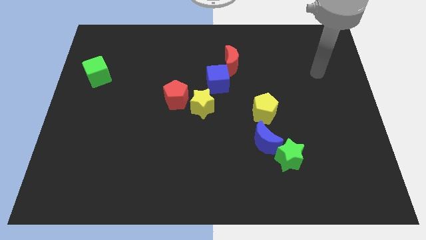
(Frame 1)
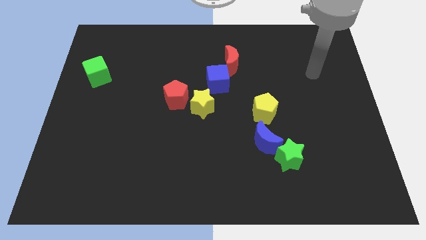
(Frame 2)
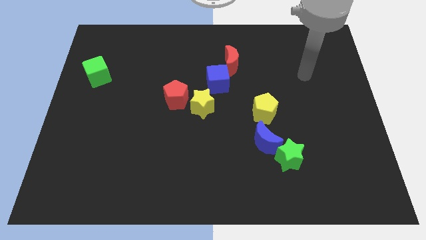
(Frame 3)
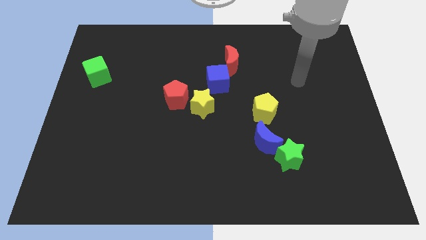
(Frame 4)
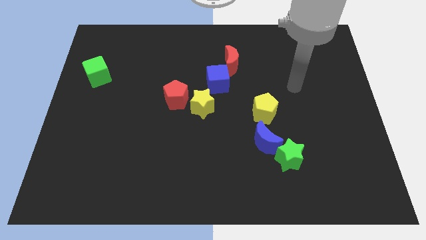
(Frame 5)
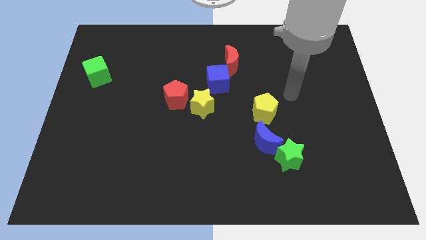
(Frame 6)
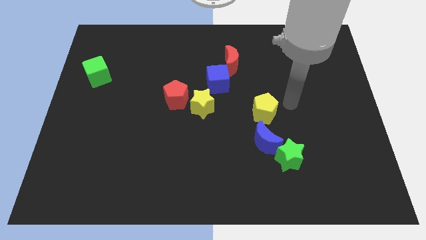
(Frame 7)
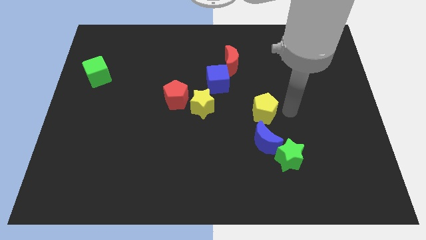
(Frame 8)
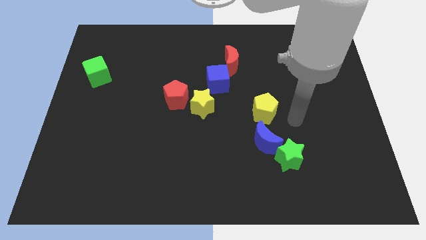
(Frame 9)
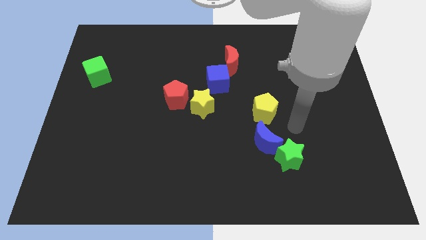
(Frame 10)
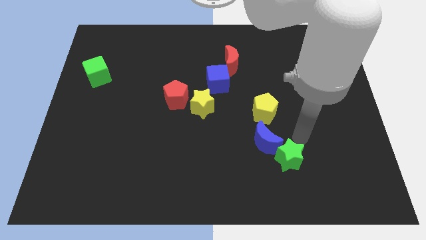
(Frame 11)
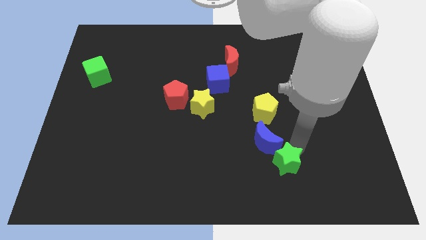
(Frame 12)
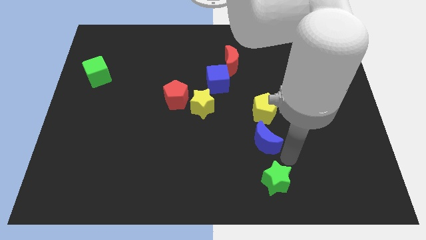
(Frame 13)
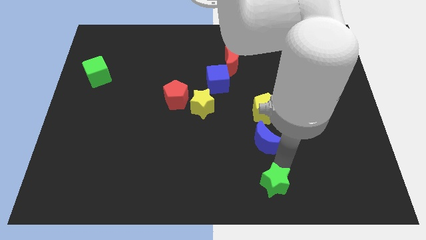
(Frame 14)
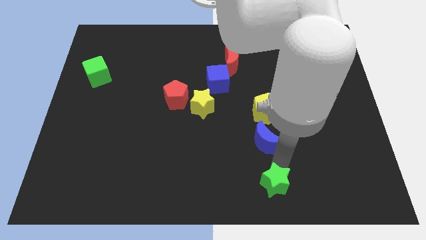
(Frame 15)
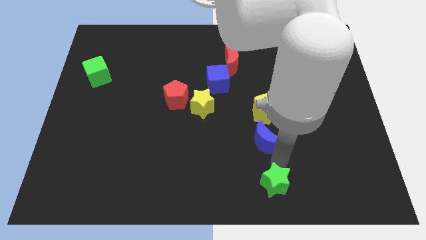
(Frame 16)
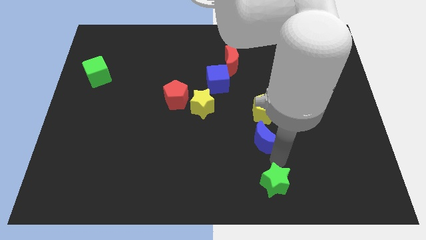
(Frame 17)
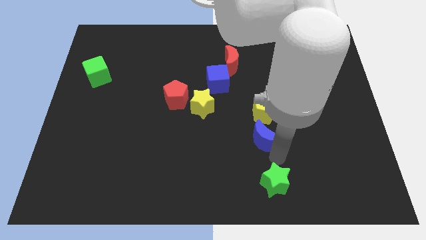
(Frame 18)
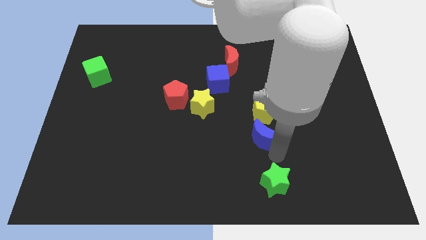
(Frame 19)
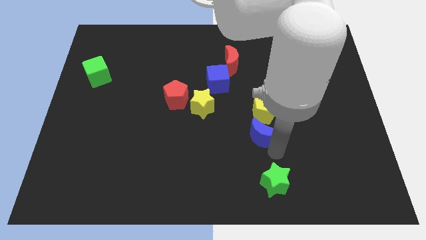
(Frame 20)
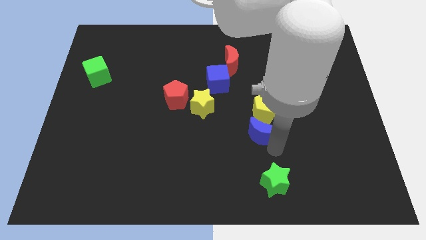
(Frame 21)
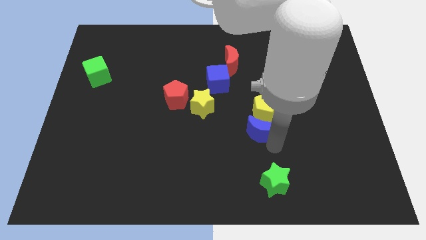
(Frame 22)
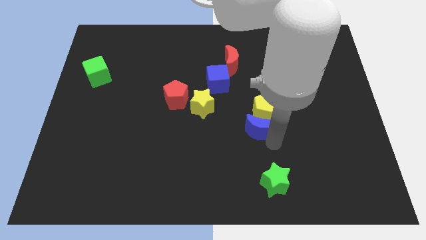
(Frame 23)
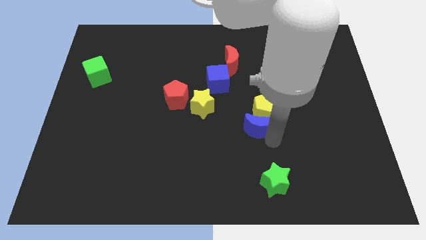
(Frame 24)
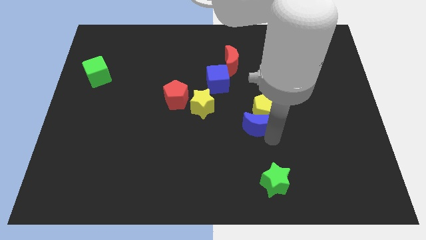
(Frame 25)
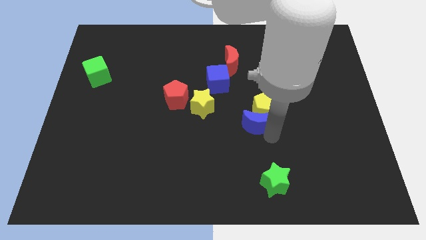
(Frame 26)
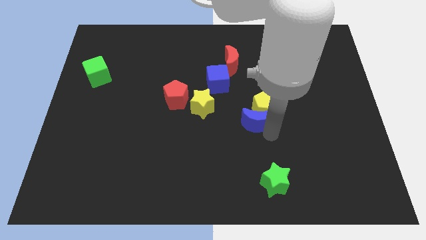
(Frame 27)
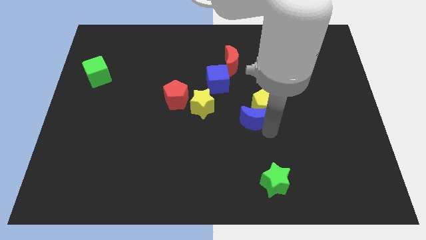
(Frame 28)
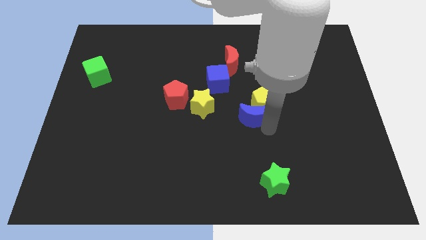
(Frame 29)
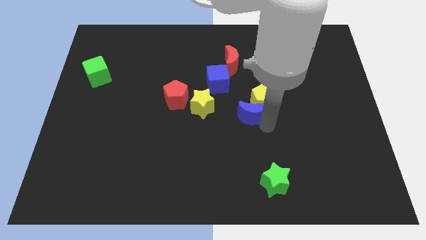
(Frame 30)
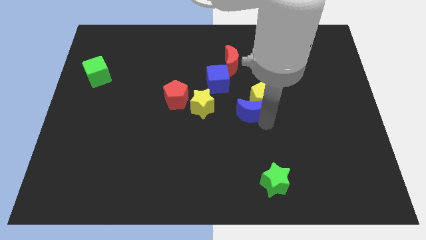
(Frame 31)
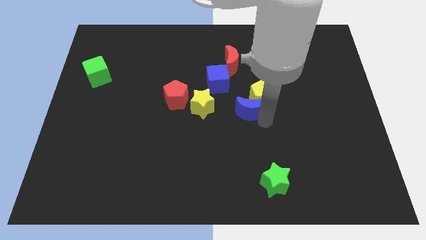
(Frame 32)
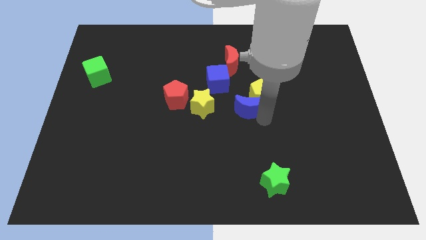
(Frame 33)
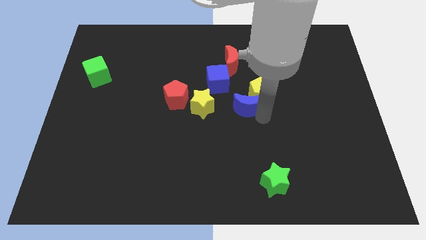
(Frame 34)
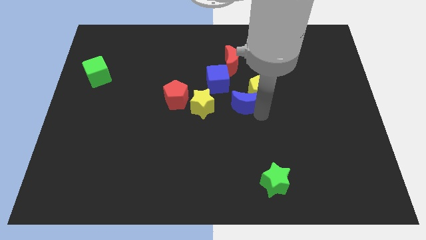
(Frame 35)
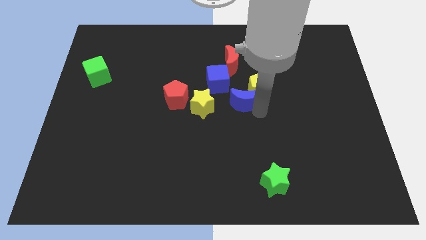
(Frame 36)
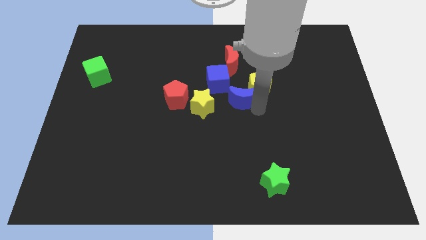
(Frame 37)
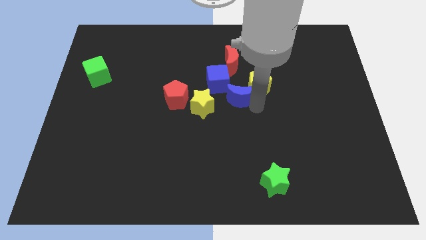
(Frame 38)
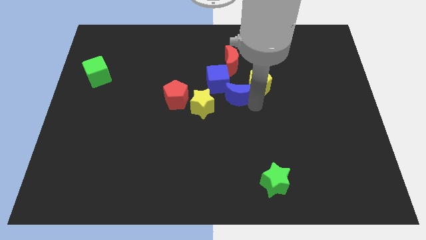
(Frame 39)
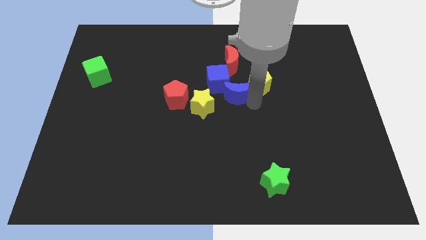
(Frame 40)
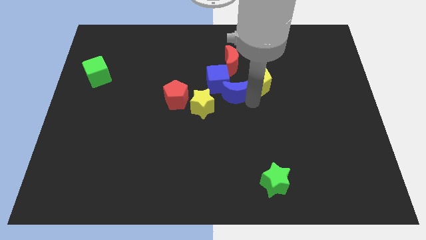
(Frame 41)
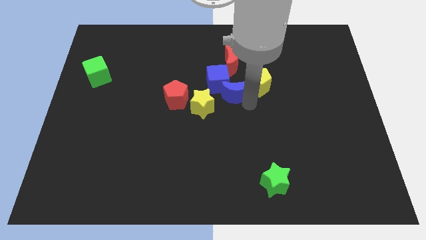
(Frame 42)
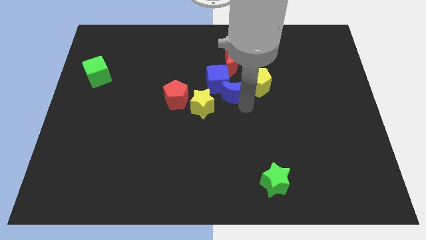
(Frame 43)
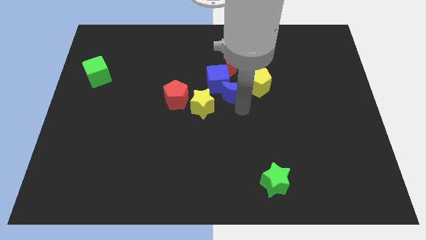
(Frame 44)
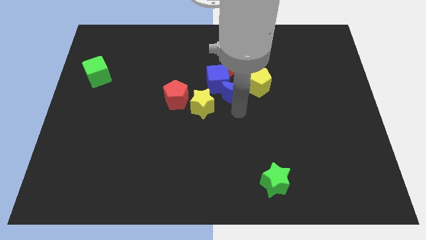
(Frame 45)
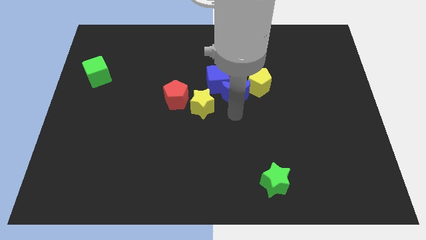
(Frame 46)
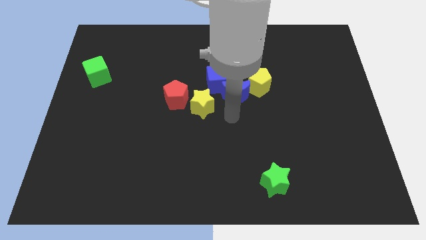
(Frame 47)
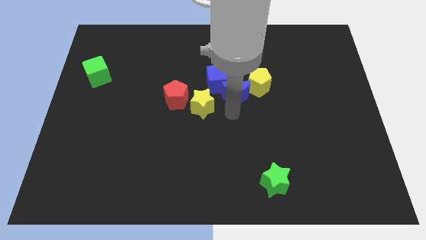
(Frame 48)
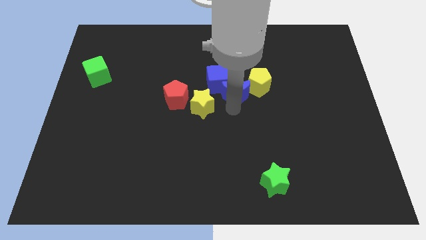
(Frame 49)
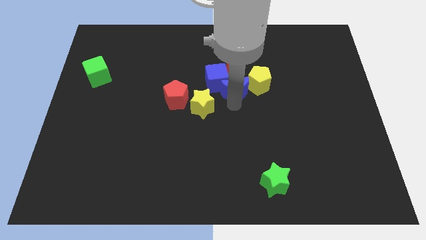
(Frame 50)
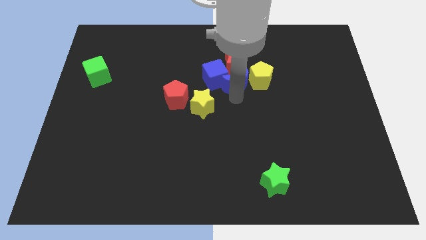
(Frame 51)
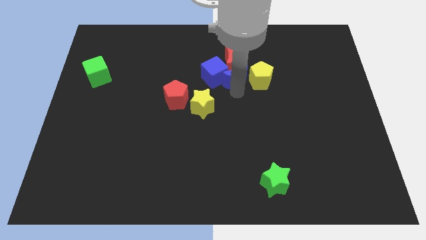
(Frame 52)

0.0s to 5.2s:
move the blue moon next to the red moon

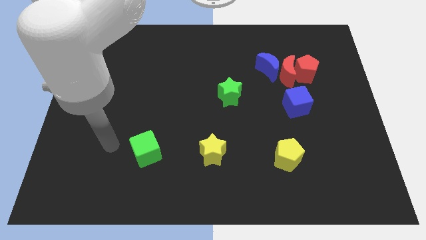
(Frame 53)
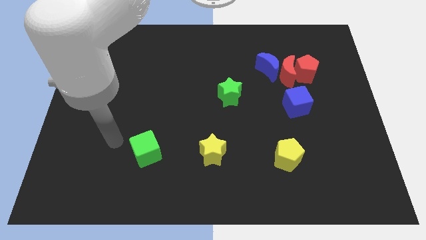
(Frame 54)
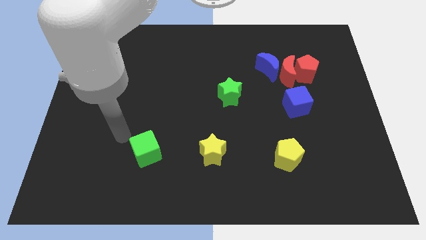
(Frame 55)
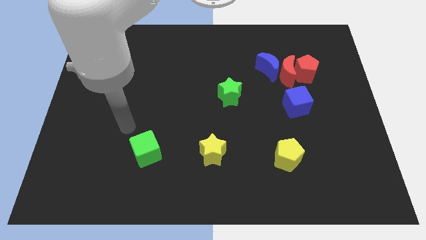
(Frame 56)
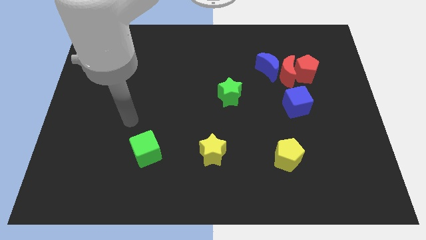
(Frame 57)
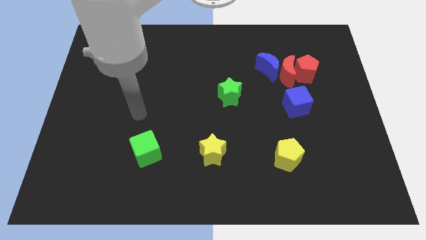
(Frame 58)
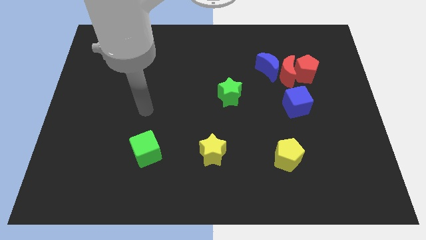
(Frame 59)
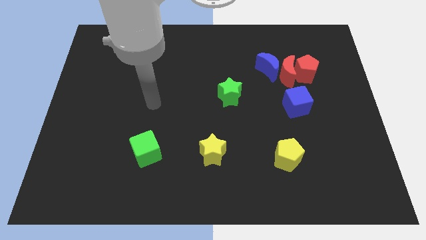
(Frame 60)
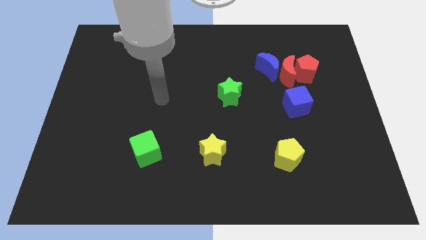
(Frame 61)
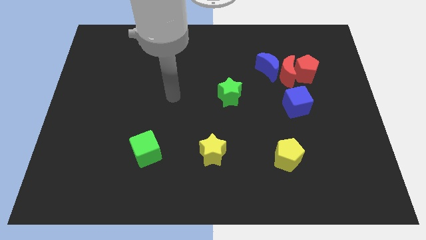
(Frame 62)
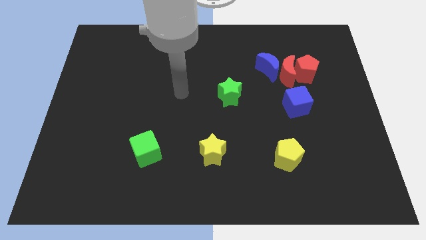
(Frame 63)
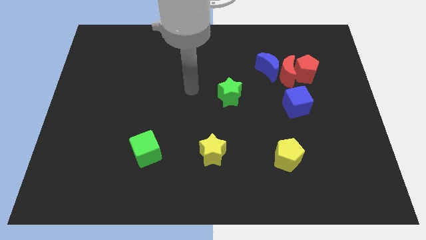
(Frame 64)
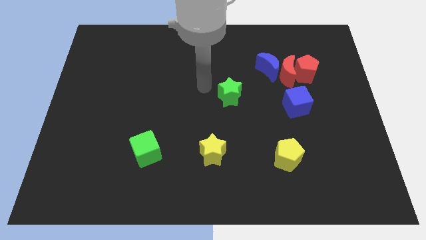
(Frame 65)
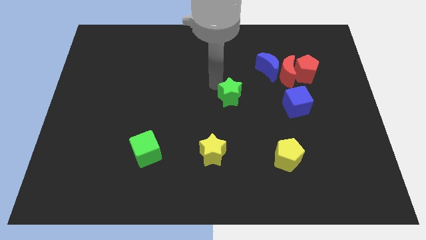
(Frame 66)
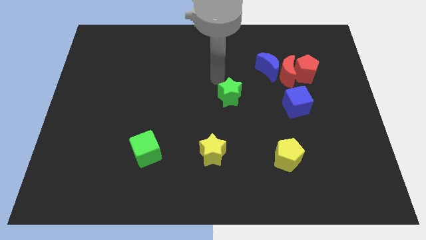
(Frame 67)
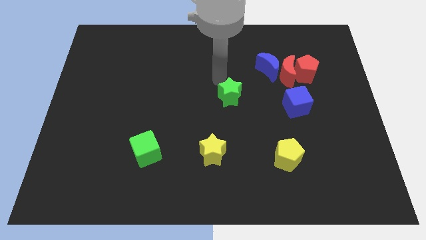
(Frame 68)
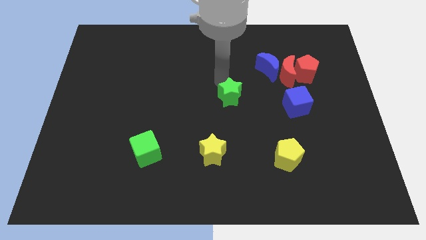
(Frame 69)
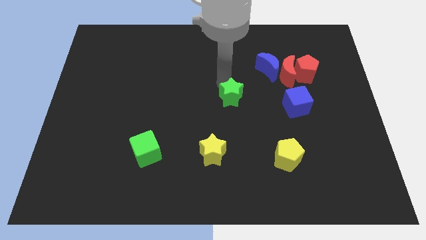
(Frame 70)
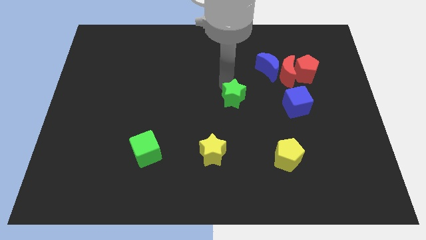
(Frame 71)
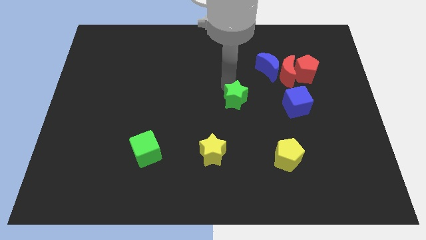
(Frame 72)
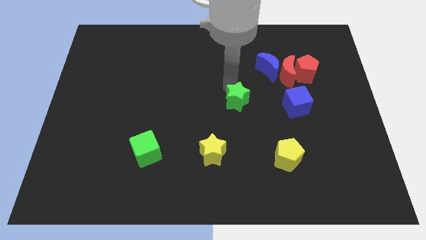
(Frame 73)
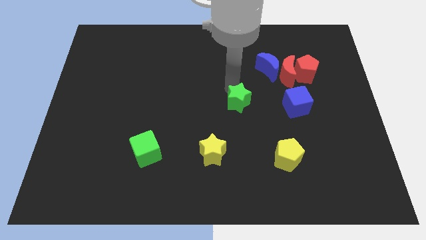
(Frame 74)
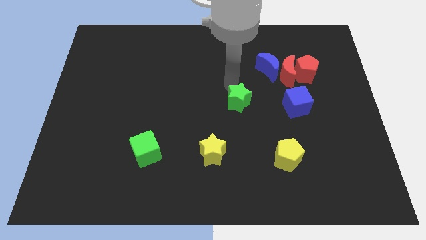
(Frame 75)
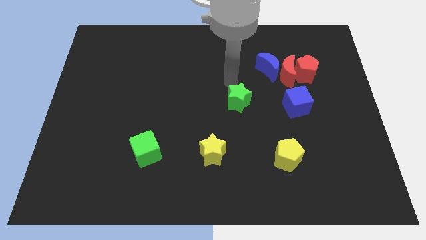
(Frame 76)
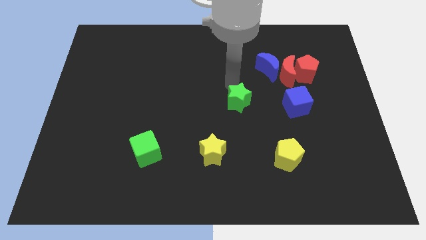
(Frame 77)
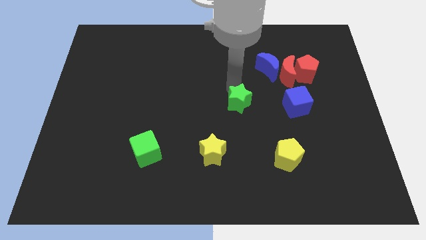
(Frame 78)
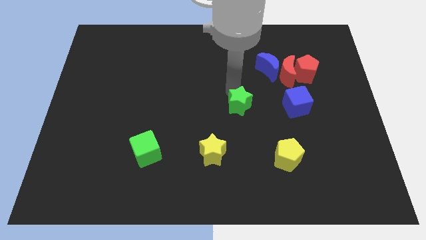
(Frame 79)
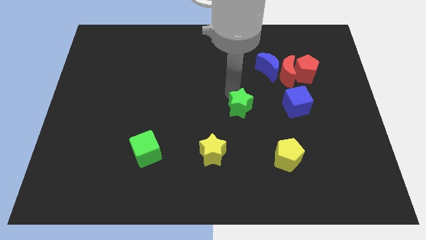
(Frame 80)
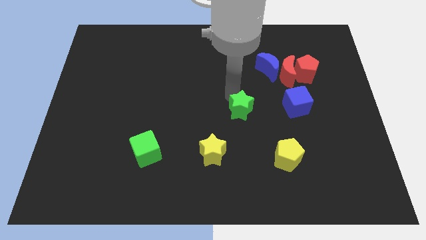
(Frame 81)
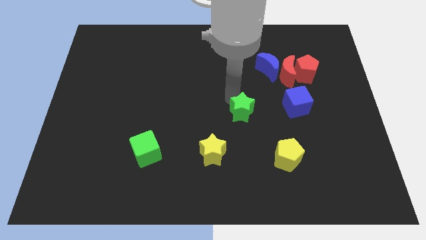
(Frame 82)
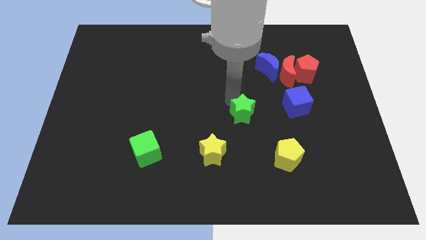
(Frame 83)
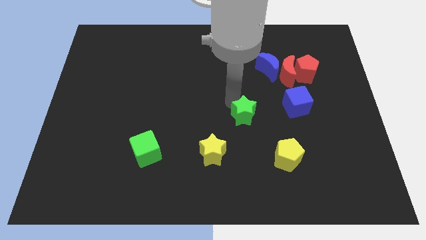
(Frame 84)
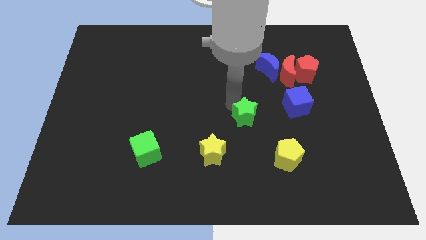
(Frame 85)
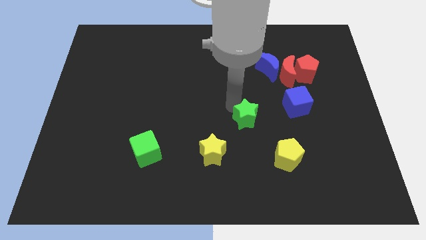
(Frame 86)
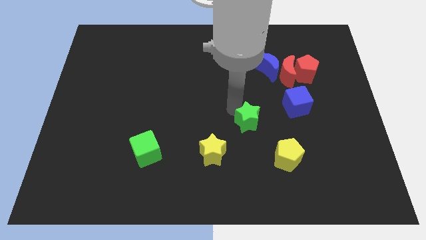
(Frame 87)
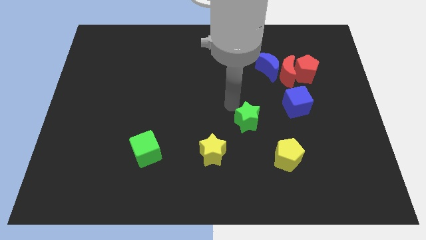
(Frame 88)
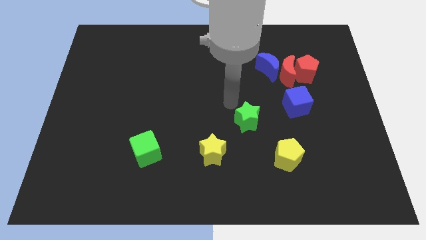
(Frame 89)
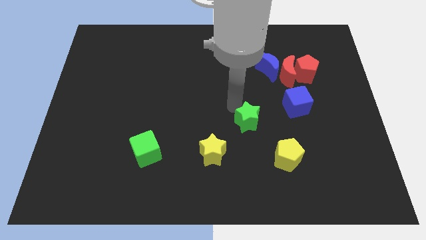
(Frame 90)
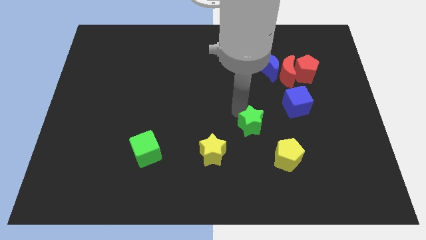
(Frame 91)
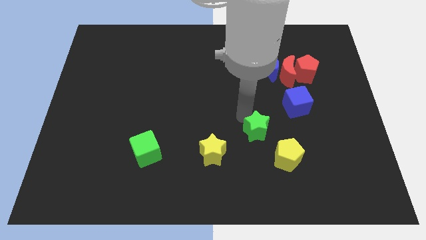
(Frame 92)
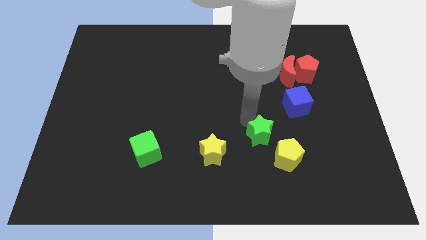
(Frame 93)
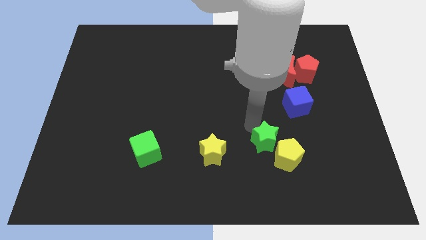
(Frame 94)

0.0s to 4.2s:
slide the green star towards the yellow pentagon
